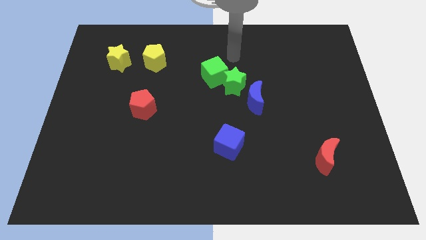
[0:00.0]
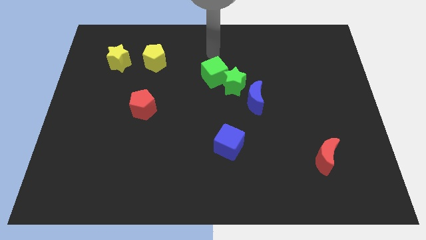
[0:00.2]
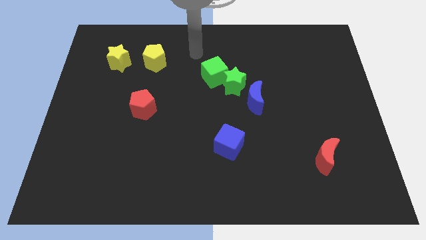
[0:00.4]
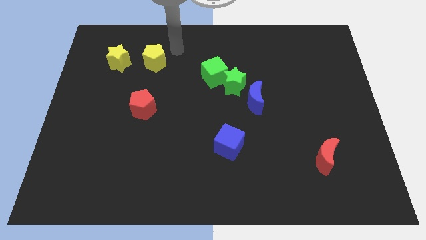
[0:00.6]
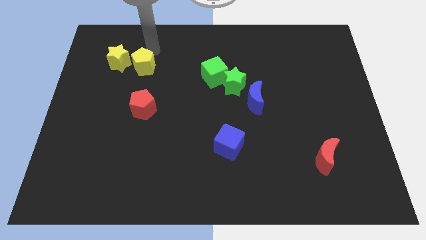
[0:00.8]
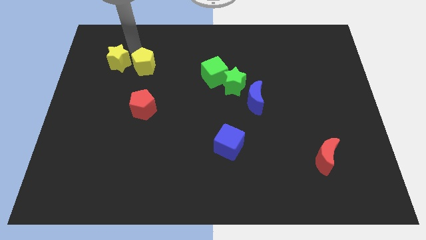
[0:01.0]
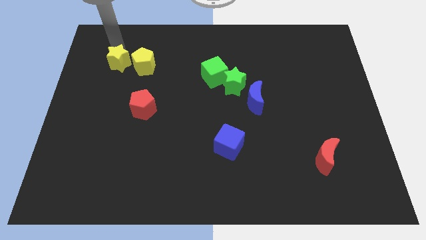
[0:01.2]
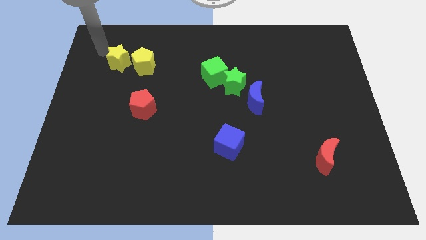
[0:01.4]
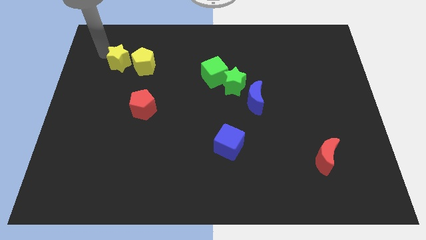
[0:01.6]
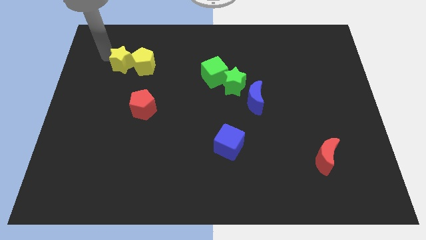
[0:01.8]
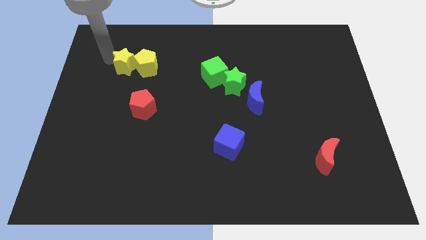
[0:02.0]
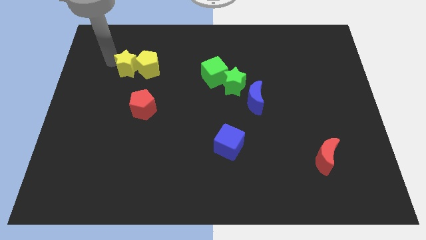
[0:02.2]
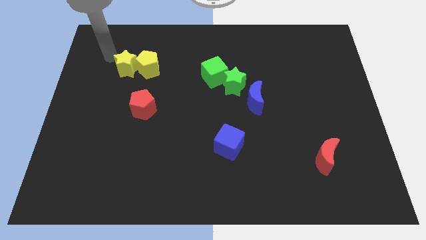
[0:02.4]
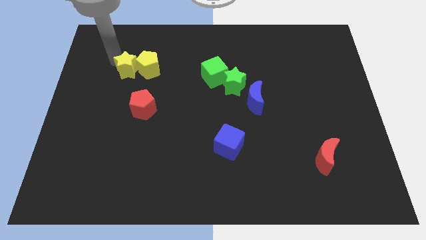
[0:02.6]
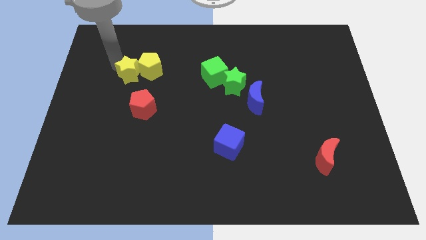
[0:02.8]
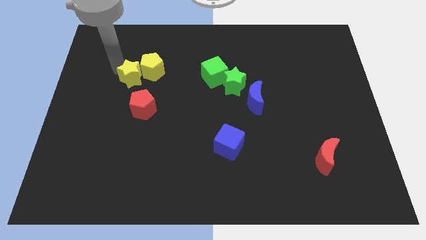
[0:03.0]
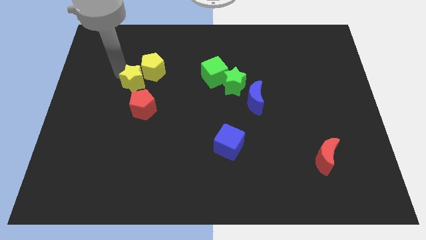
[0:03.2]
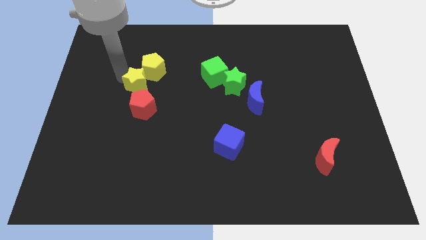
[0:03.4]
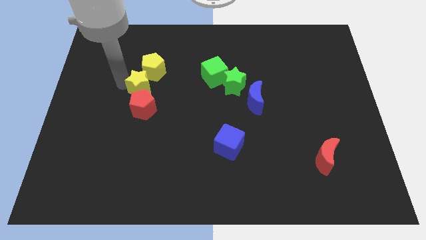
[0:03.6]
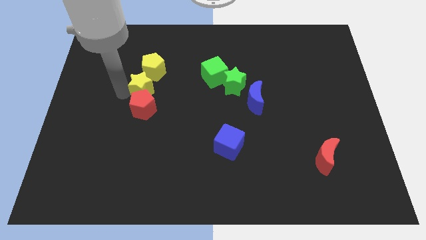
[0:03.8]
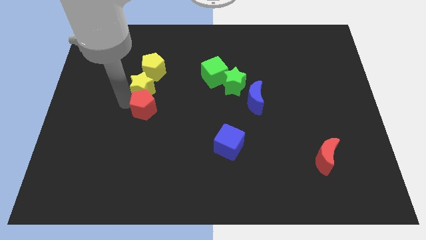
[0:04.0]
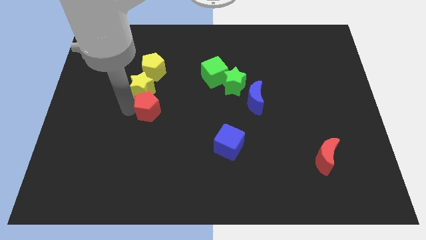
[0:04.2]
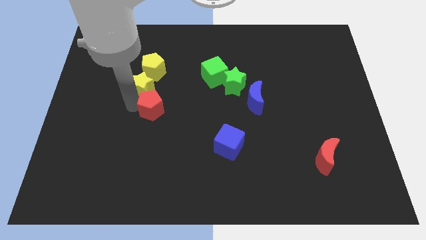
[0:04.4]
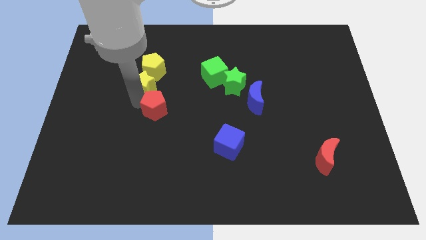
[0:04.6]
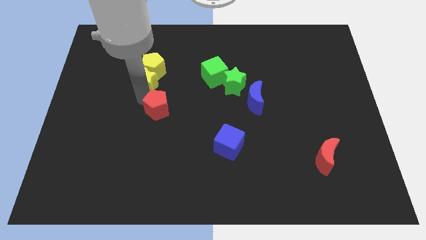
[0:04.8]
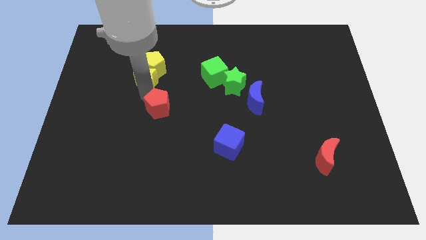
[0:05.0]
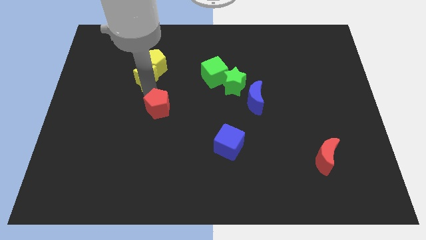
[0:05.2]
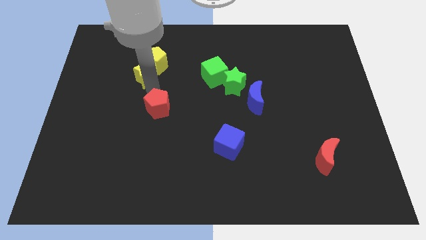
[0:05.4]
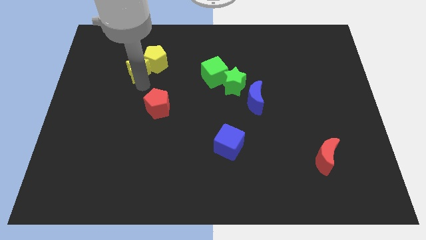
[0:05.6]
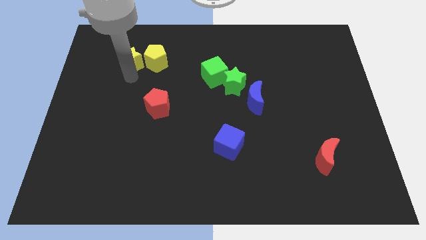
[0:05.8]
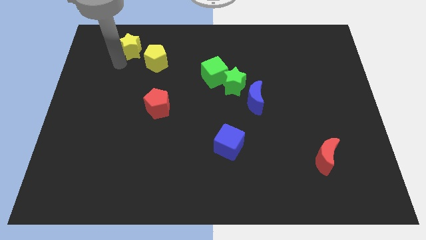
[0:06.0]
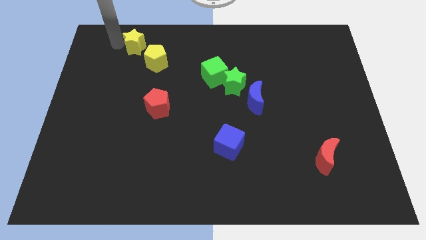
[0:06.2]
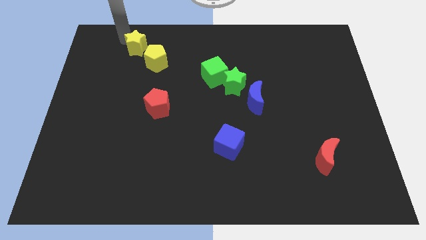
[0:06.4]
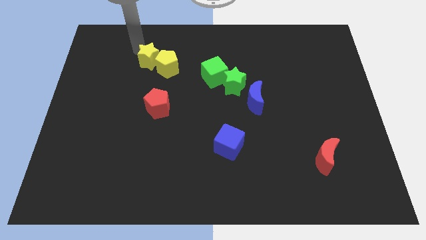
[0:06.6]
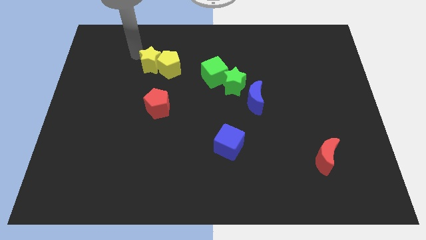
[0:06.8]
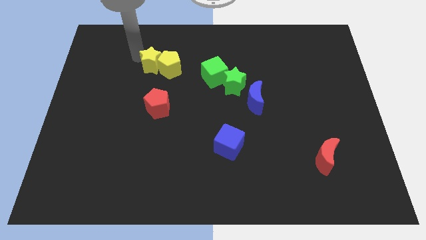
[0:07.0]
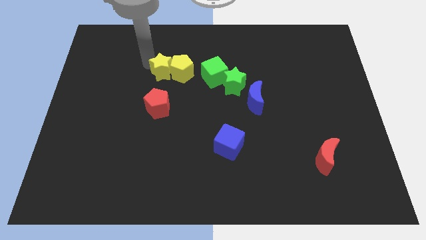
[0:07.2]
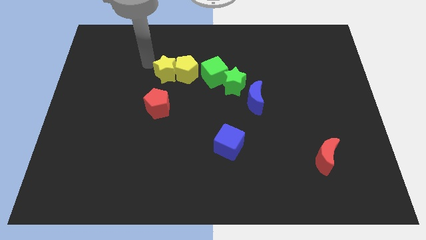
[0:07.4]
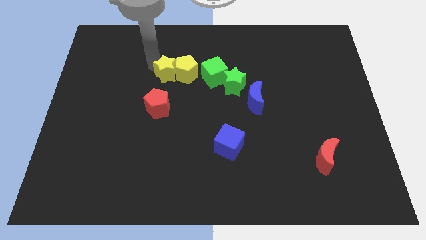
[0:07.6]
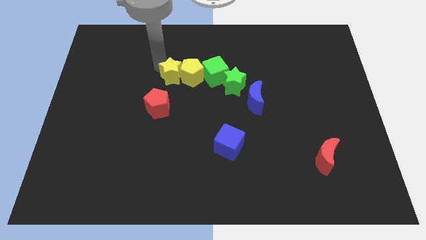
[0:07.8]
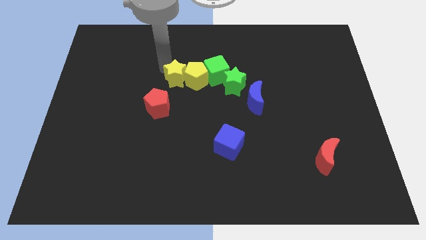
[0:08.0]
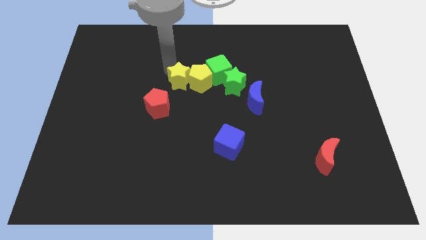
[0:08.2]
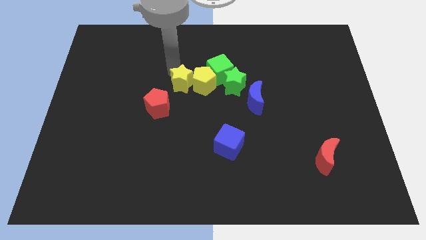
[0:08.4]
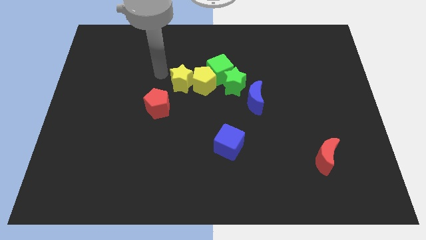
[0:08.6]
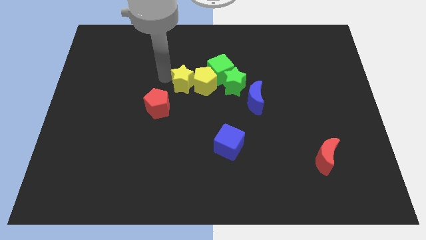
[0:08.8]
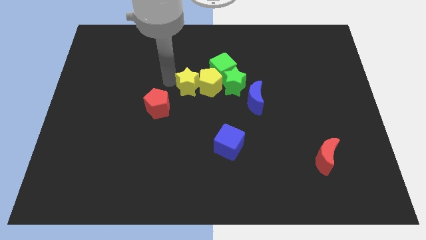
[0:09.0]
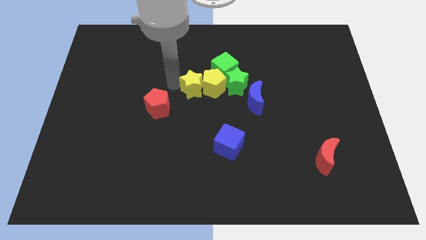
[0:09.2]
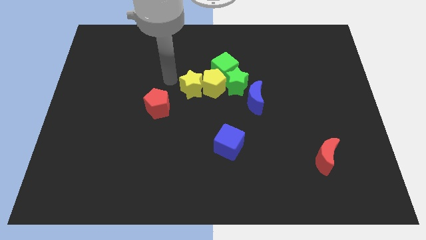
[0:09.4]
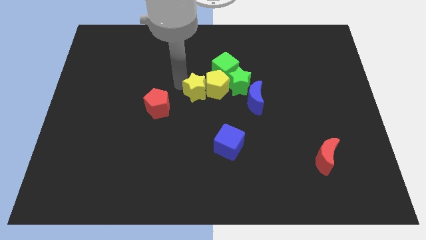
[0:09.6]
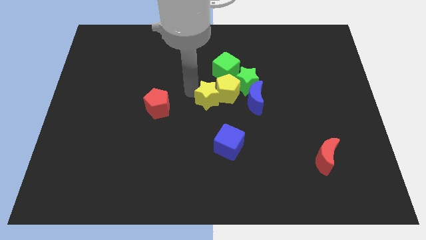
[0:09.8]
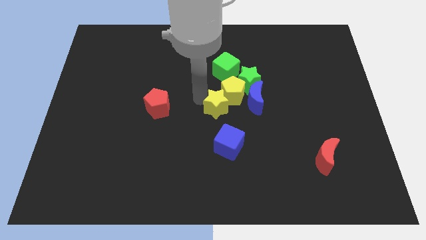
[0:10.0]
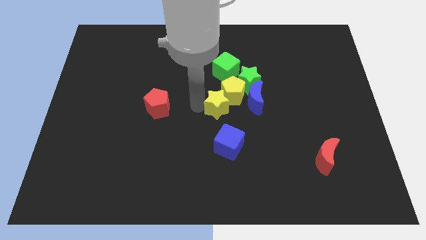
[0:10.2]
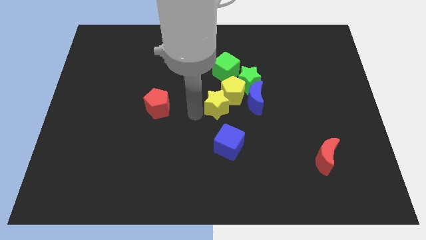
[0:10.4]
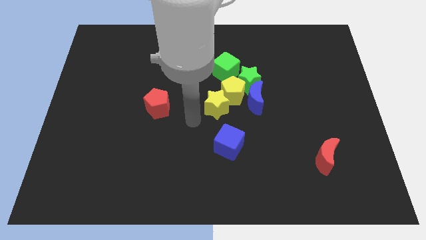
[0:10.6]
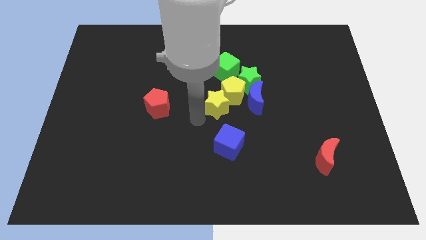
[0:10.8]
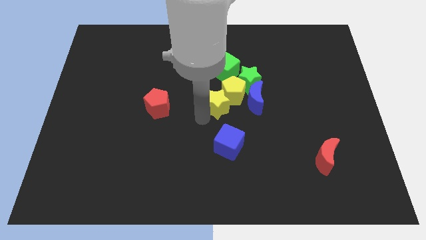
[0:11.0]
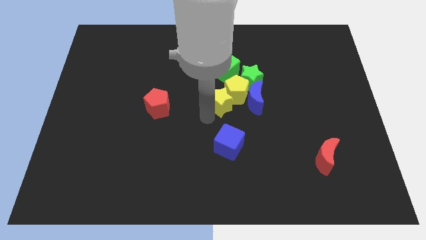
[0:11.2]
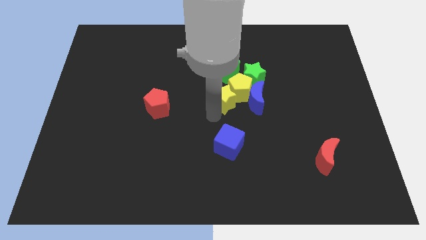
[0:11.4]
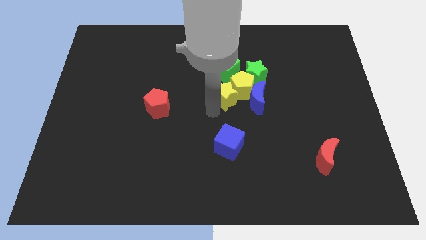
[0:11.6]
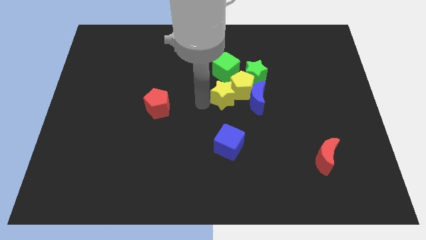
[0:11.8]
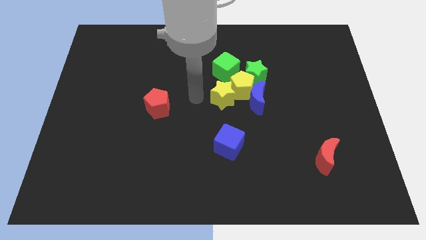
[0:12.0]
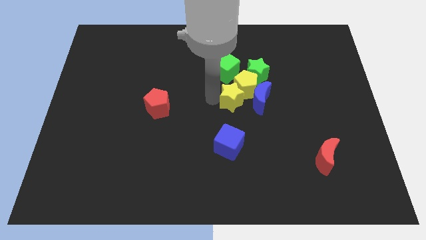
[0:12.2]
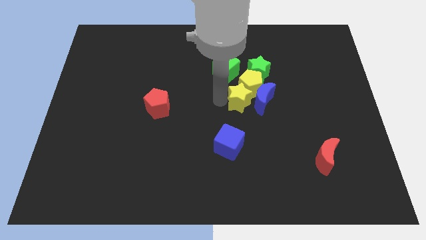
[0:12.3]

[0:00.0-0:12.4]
push the yellow star to the blue moon
